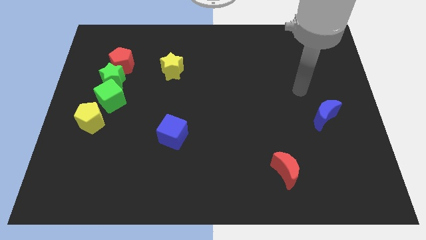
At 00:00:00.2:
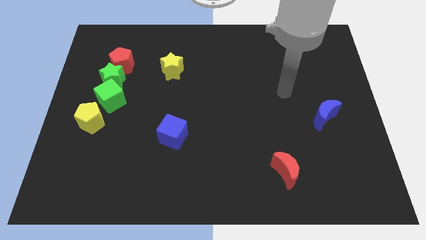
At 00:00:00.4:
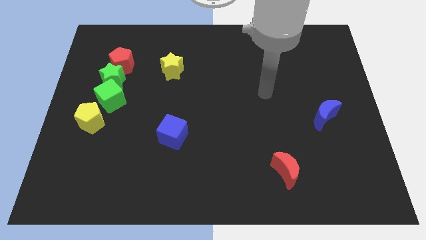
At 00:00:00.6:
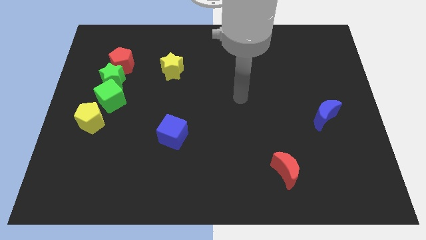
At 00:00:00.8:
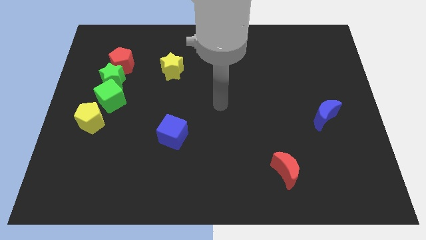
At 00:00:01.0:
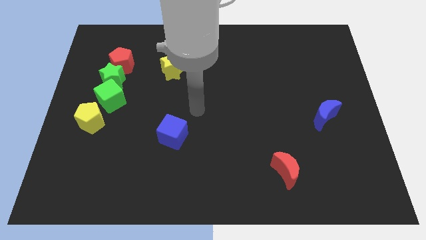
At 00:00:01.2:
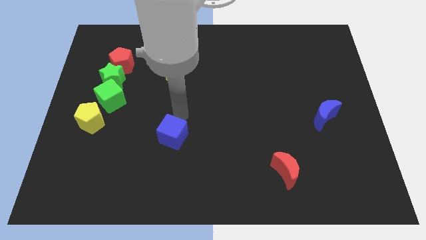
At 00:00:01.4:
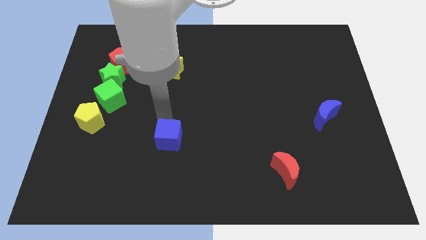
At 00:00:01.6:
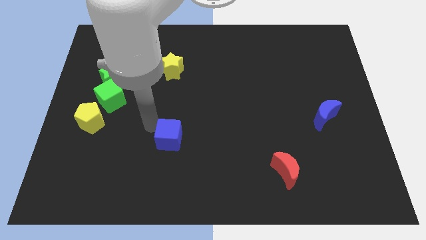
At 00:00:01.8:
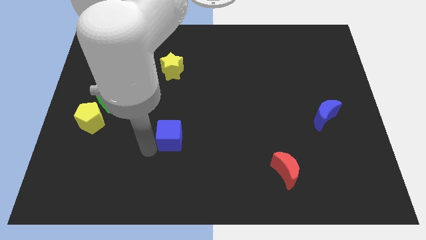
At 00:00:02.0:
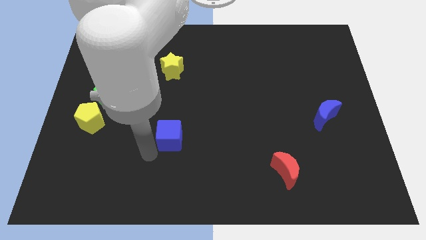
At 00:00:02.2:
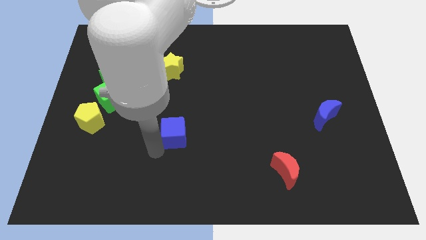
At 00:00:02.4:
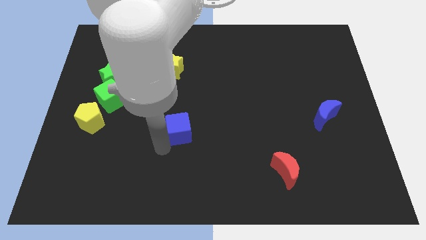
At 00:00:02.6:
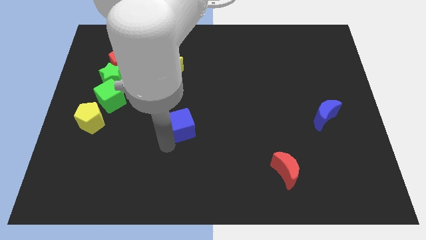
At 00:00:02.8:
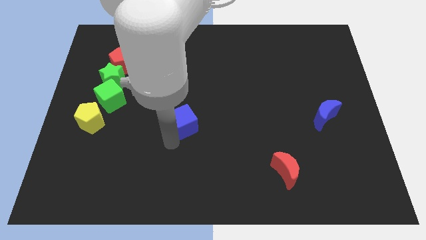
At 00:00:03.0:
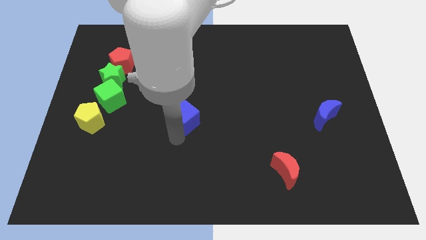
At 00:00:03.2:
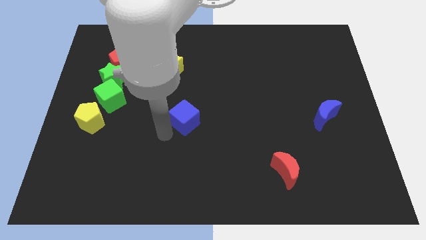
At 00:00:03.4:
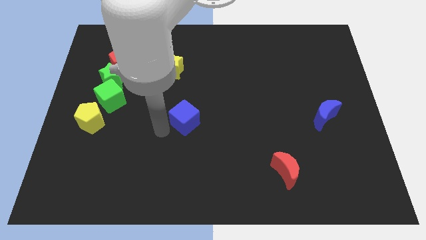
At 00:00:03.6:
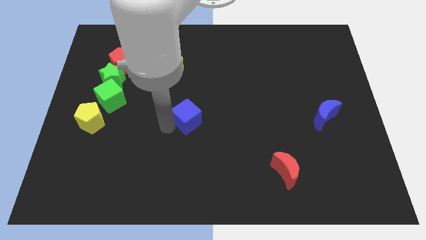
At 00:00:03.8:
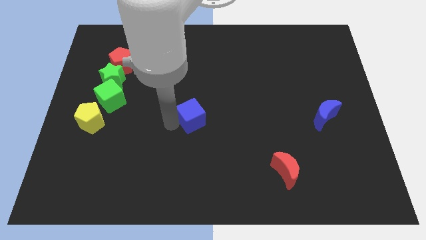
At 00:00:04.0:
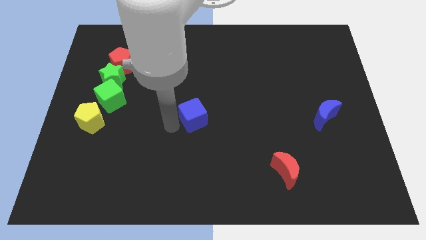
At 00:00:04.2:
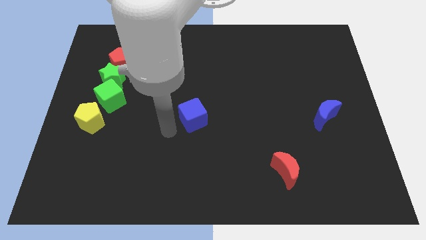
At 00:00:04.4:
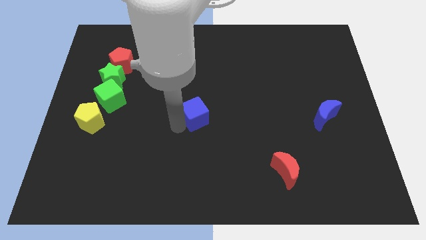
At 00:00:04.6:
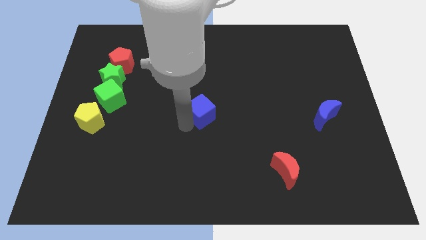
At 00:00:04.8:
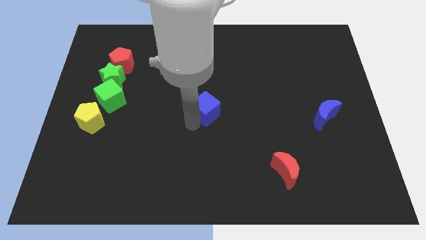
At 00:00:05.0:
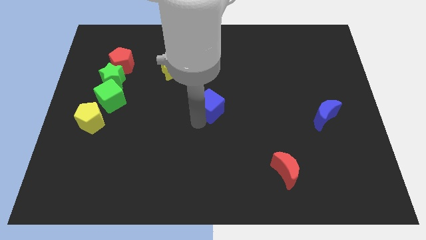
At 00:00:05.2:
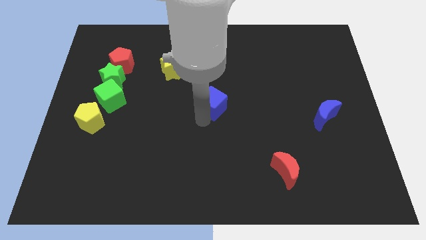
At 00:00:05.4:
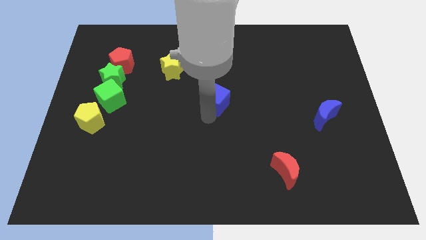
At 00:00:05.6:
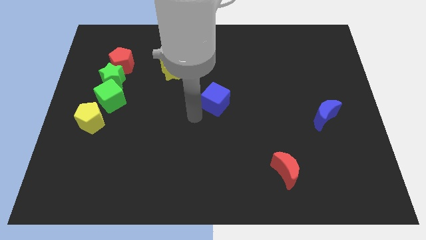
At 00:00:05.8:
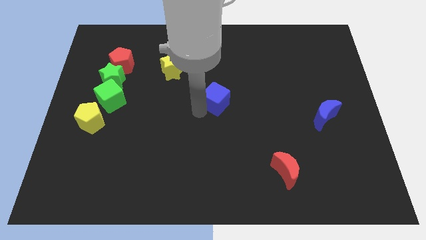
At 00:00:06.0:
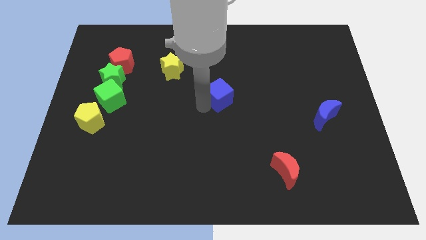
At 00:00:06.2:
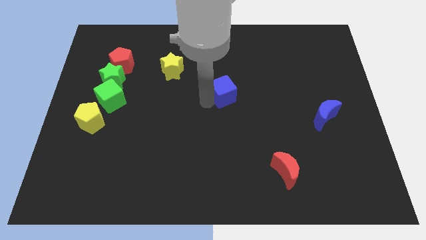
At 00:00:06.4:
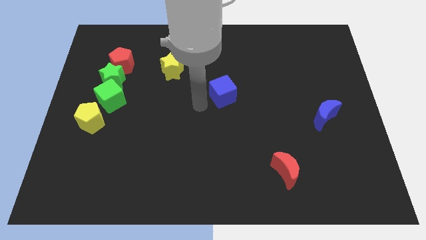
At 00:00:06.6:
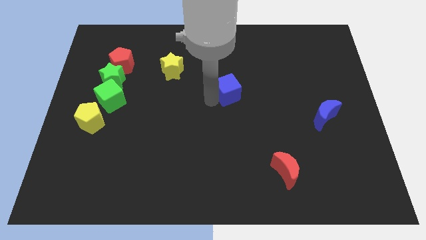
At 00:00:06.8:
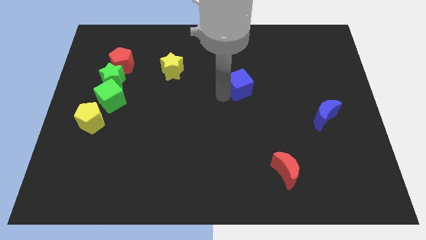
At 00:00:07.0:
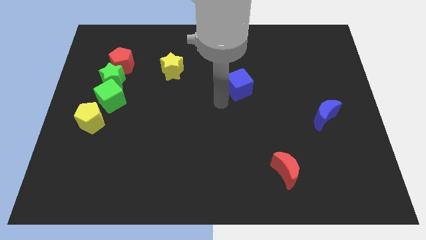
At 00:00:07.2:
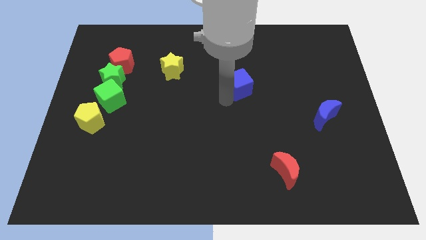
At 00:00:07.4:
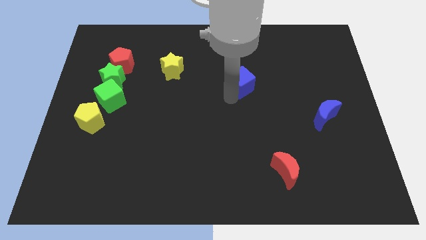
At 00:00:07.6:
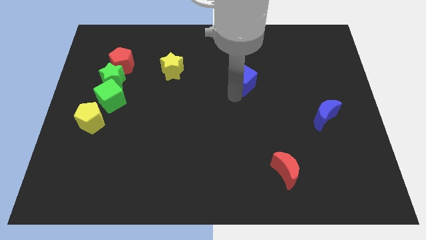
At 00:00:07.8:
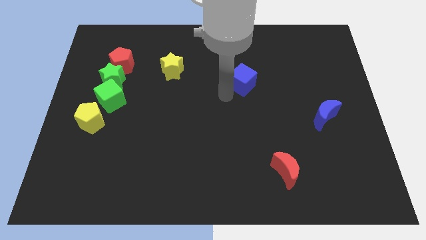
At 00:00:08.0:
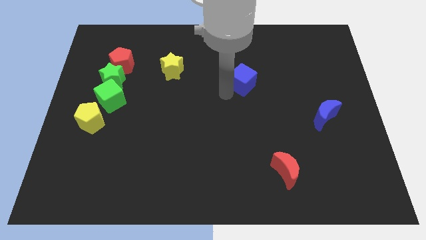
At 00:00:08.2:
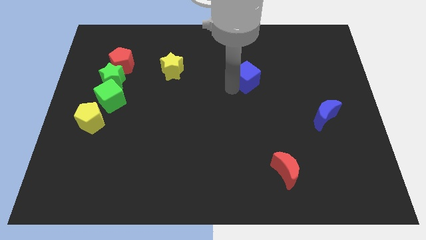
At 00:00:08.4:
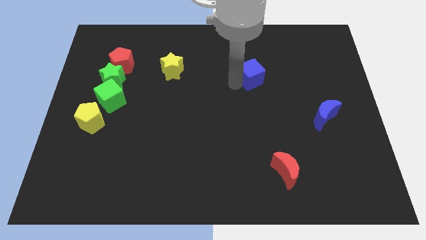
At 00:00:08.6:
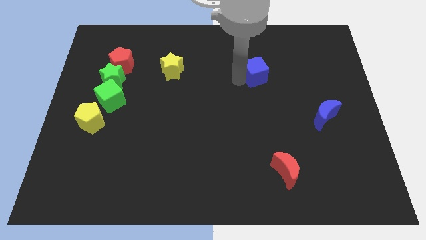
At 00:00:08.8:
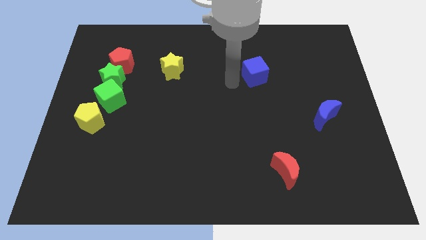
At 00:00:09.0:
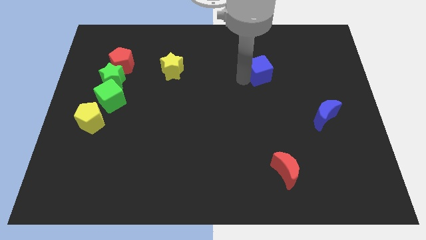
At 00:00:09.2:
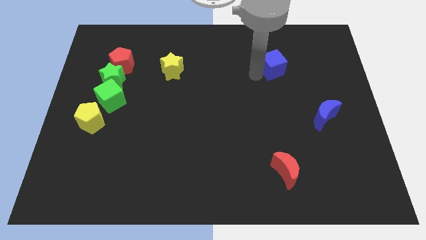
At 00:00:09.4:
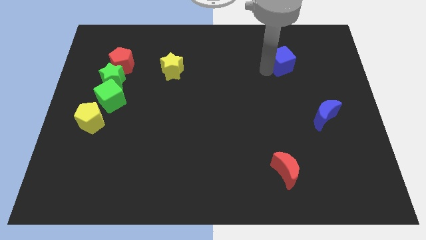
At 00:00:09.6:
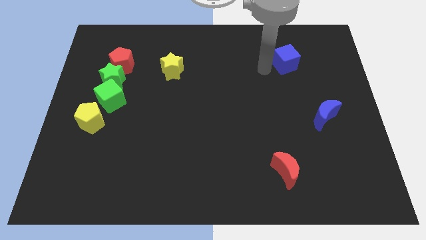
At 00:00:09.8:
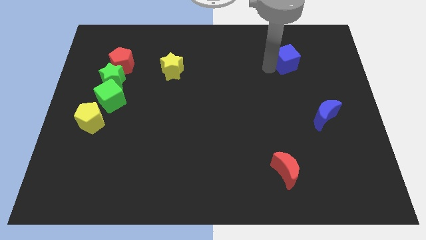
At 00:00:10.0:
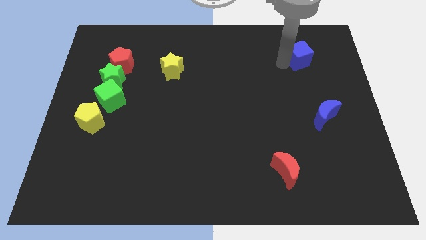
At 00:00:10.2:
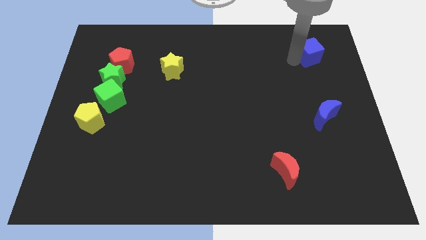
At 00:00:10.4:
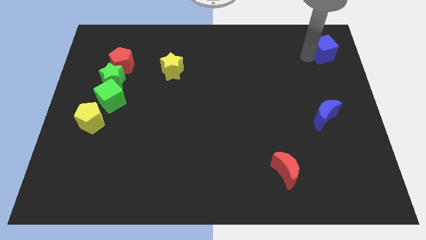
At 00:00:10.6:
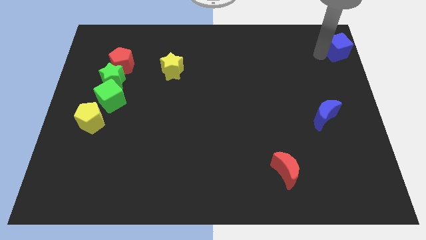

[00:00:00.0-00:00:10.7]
push the blue cube to the top right

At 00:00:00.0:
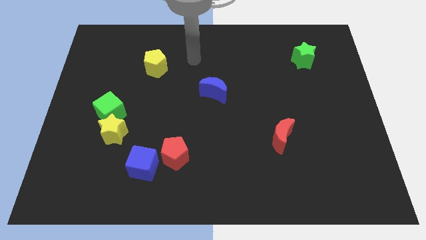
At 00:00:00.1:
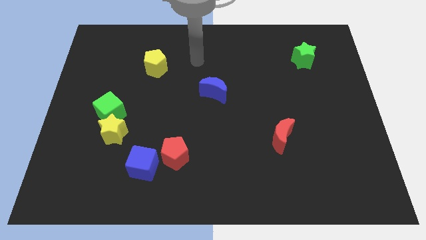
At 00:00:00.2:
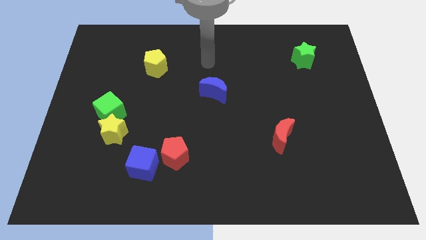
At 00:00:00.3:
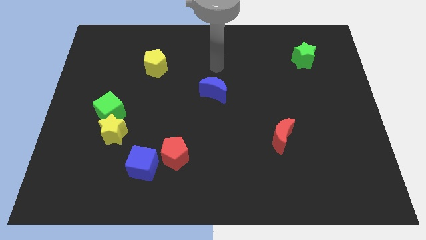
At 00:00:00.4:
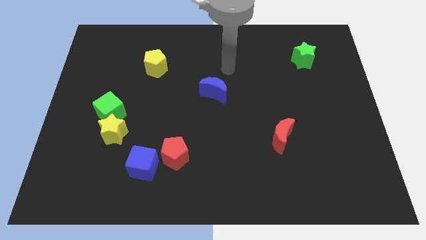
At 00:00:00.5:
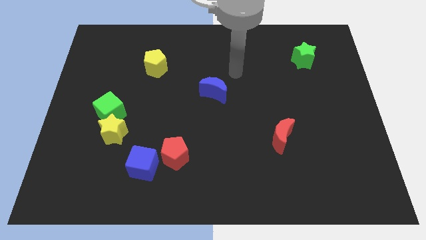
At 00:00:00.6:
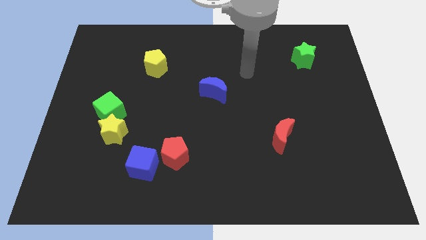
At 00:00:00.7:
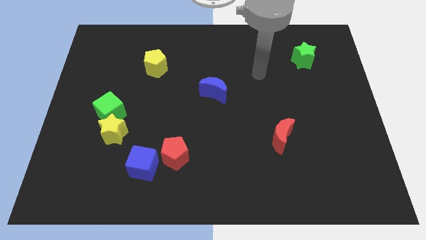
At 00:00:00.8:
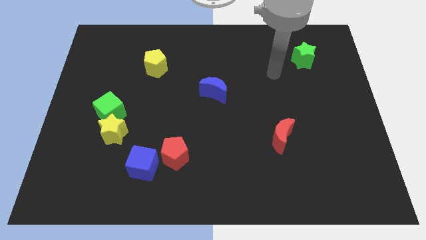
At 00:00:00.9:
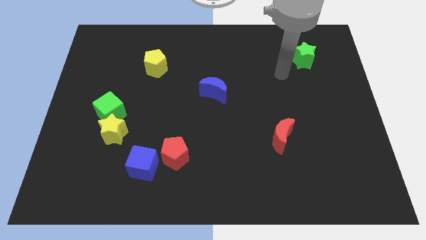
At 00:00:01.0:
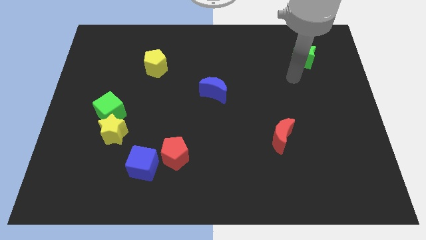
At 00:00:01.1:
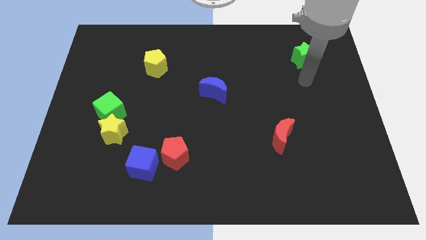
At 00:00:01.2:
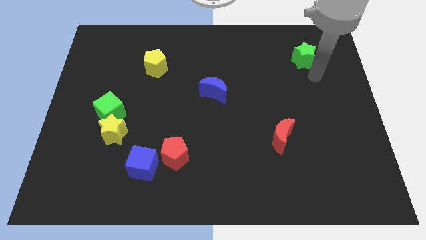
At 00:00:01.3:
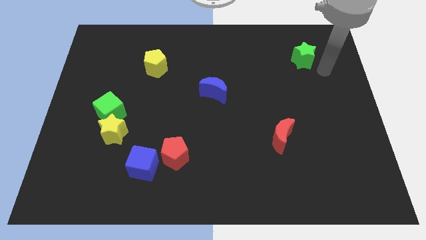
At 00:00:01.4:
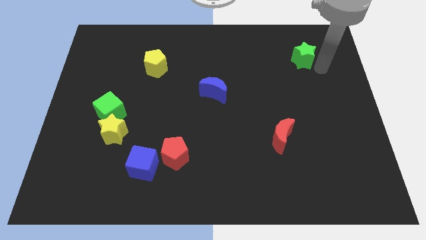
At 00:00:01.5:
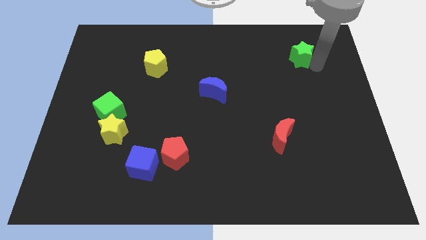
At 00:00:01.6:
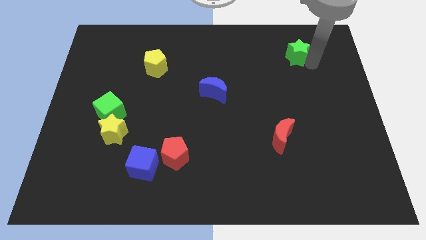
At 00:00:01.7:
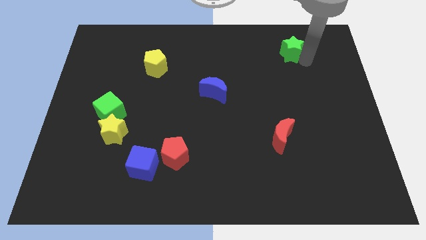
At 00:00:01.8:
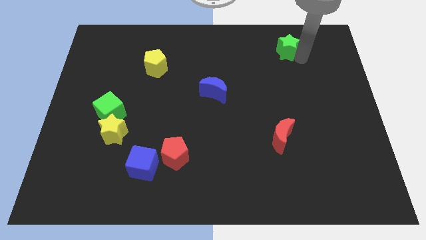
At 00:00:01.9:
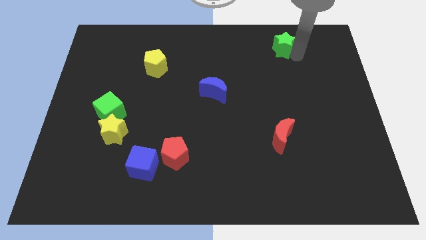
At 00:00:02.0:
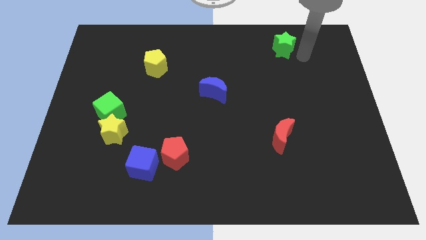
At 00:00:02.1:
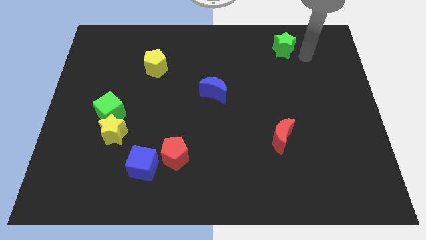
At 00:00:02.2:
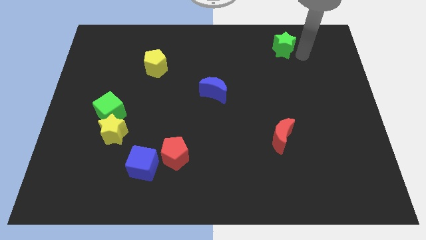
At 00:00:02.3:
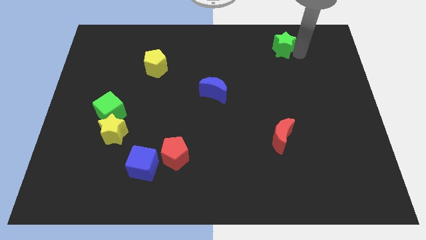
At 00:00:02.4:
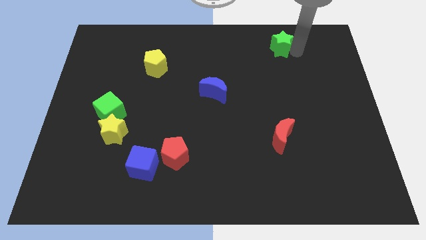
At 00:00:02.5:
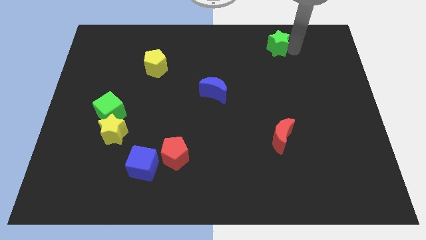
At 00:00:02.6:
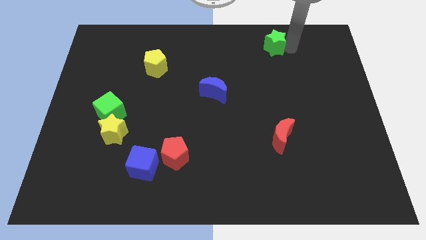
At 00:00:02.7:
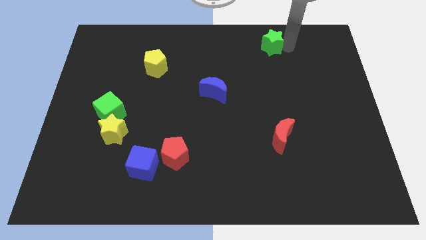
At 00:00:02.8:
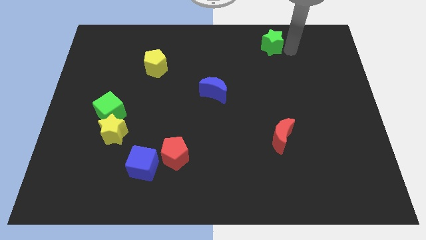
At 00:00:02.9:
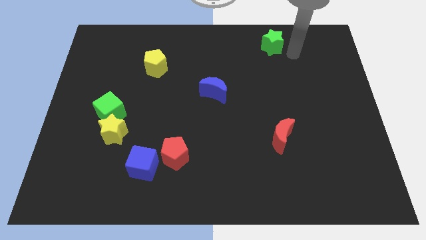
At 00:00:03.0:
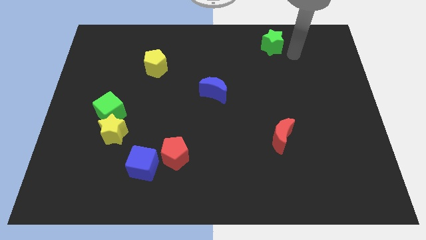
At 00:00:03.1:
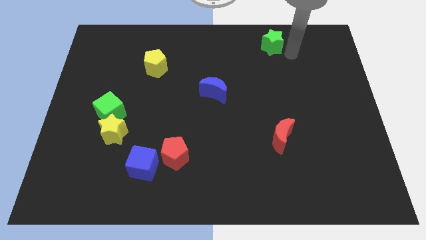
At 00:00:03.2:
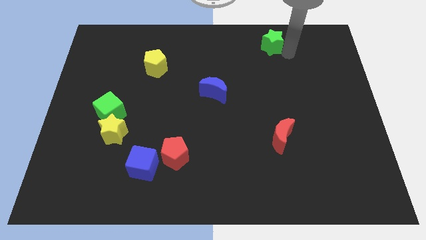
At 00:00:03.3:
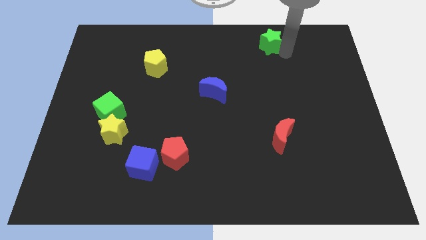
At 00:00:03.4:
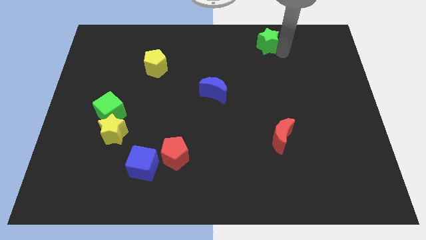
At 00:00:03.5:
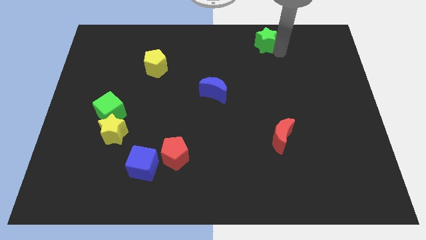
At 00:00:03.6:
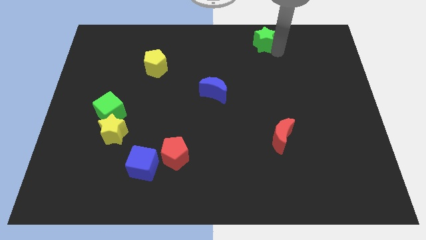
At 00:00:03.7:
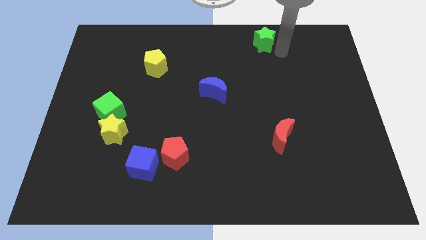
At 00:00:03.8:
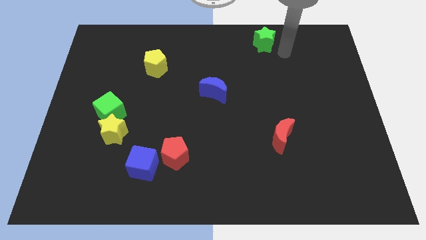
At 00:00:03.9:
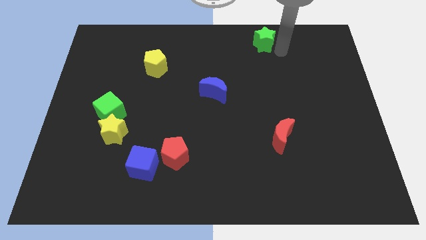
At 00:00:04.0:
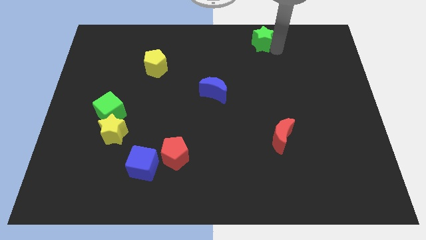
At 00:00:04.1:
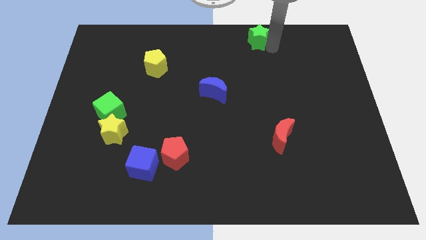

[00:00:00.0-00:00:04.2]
put the green star to the towards your base
